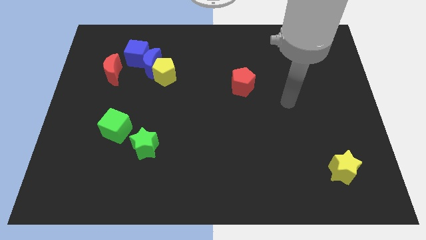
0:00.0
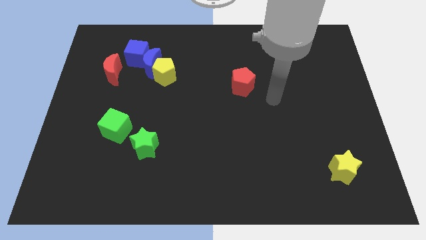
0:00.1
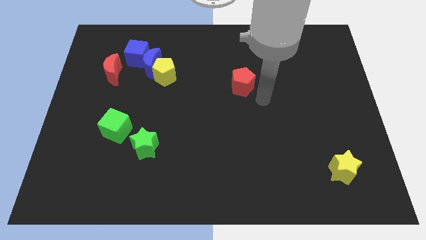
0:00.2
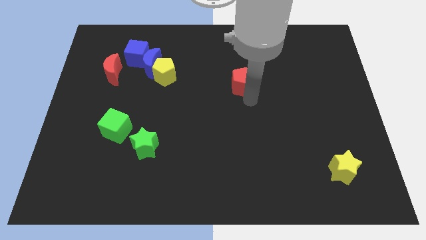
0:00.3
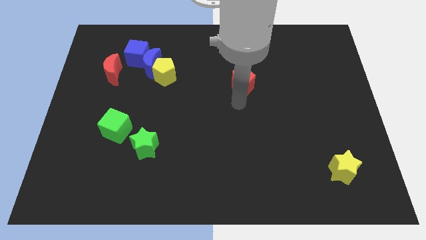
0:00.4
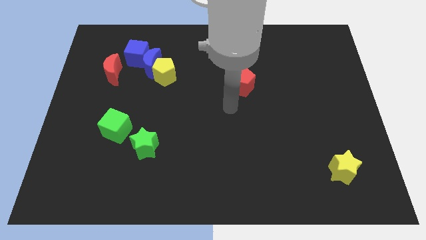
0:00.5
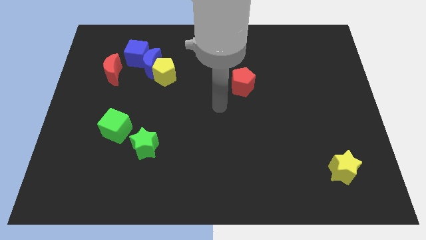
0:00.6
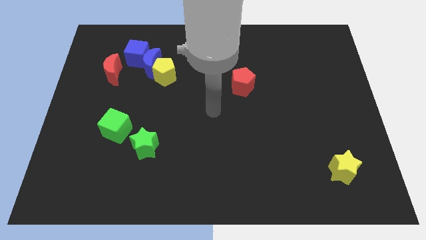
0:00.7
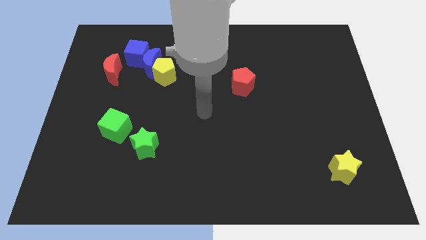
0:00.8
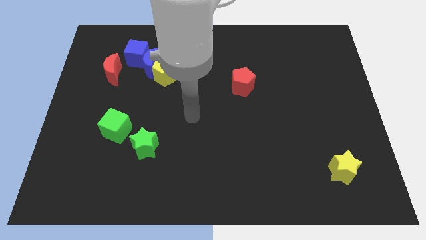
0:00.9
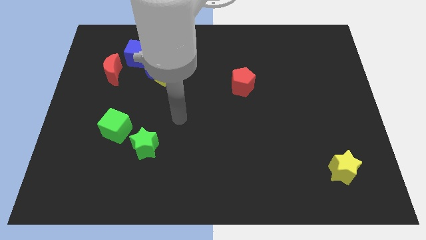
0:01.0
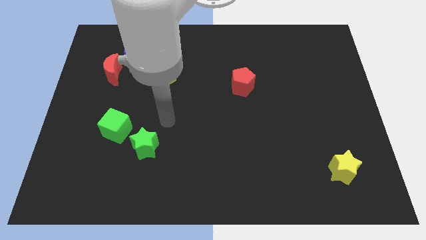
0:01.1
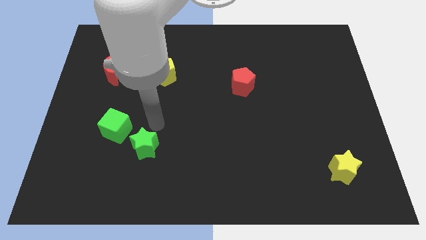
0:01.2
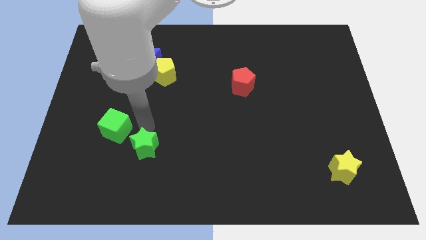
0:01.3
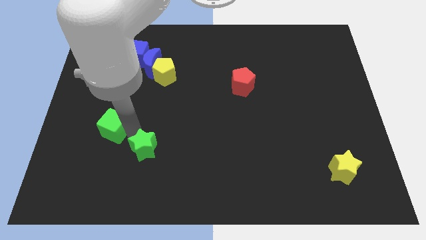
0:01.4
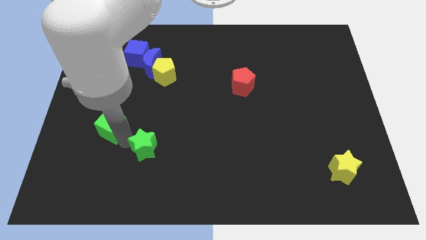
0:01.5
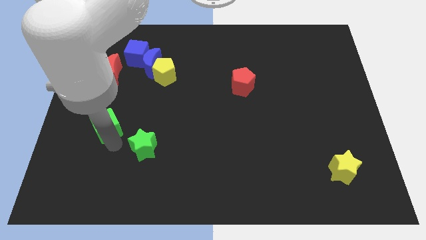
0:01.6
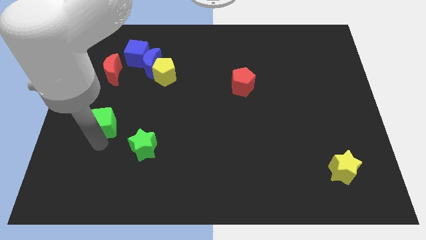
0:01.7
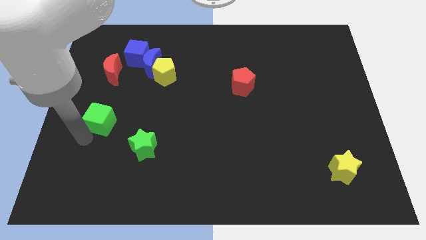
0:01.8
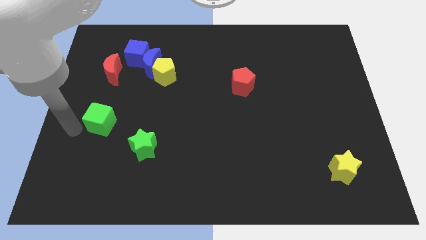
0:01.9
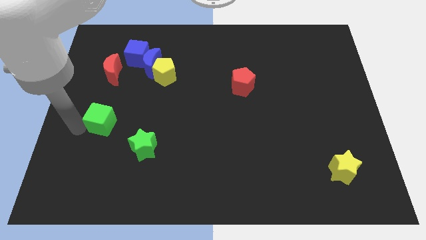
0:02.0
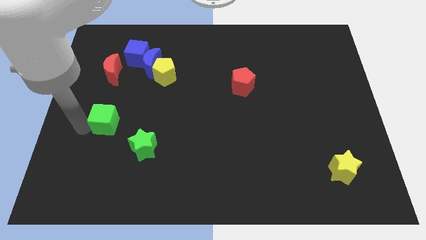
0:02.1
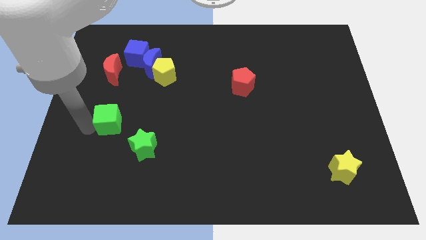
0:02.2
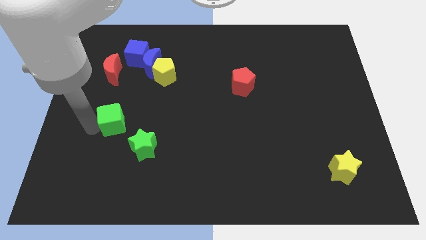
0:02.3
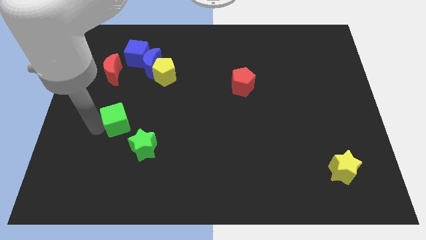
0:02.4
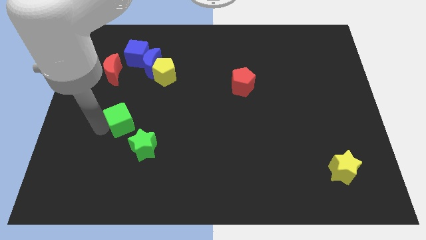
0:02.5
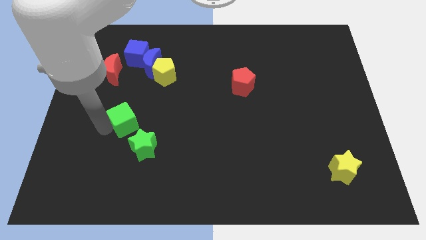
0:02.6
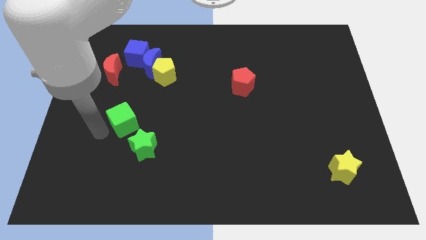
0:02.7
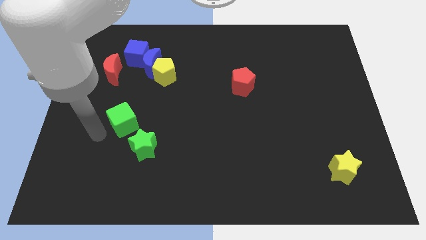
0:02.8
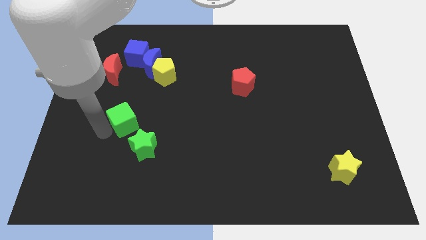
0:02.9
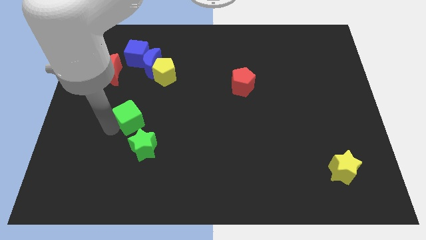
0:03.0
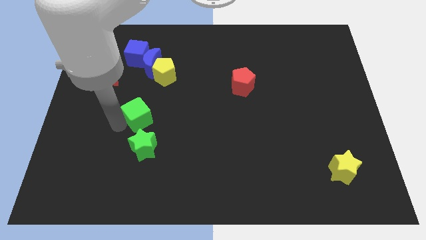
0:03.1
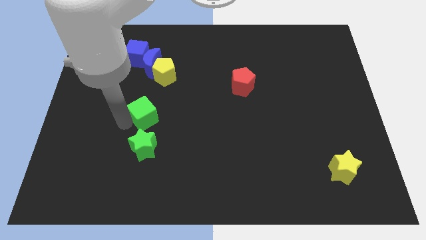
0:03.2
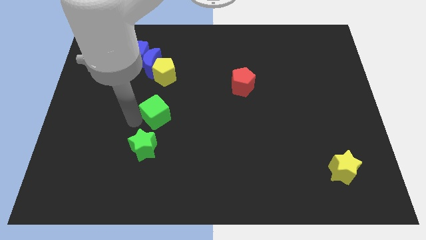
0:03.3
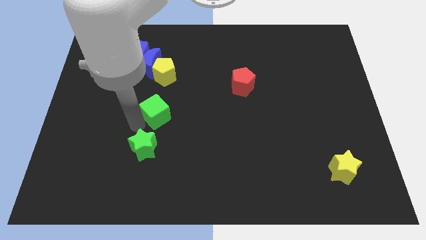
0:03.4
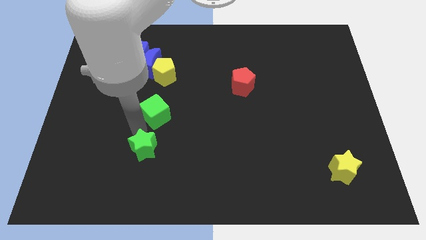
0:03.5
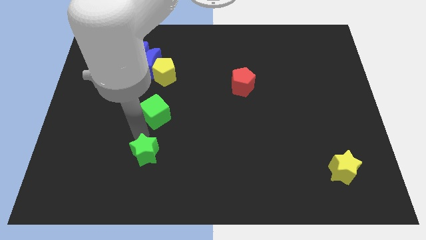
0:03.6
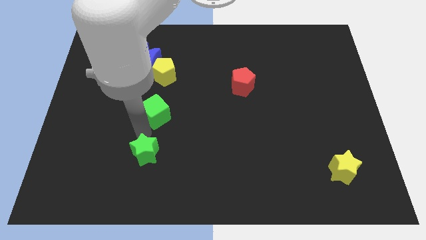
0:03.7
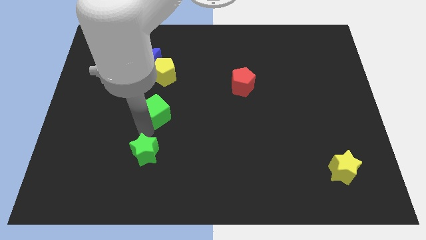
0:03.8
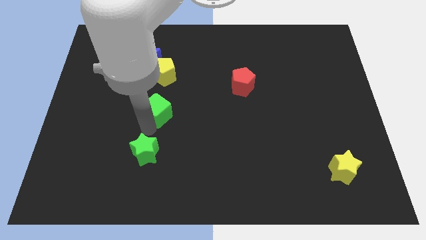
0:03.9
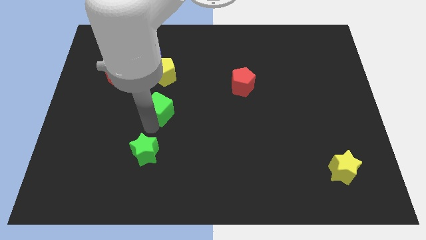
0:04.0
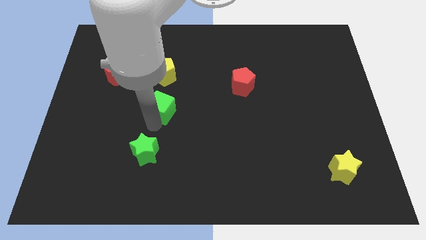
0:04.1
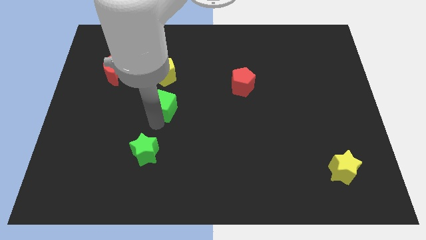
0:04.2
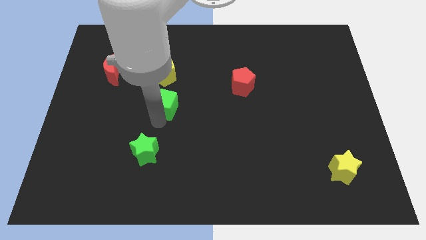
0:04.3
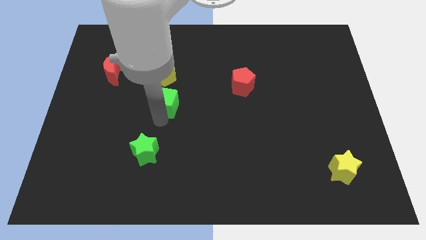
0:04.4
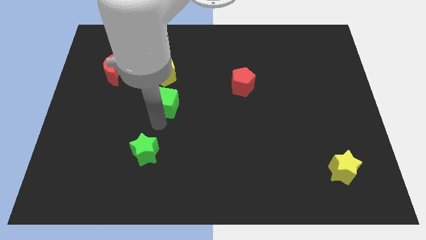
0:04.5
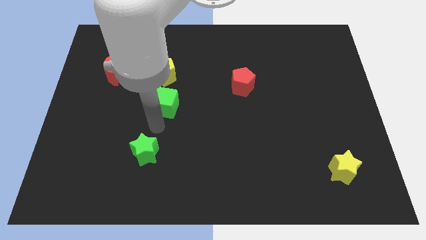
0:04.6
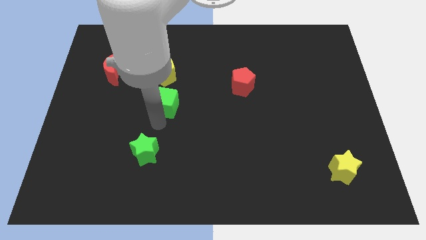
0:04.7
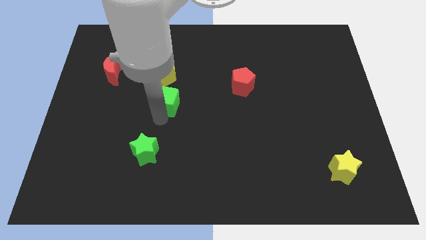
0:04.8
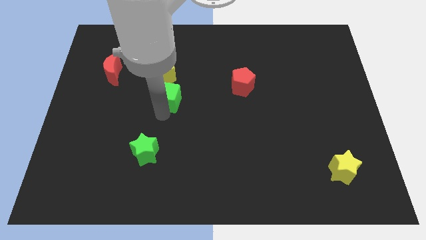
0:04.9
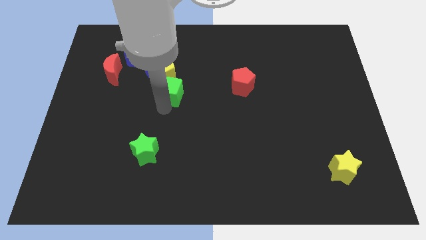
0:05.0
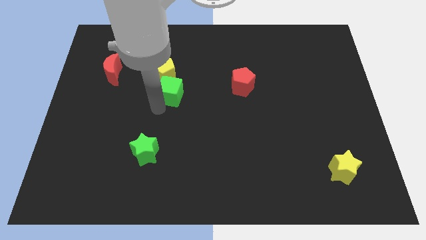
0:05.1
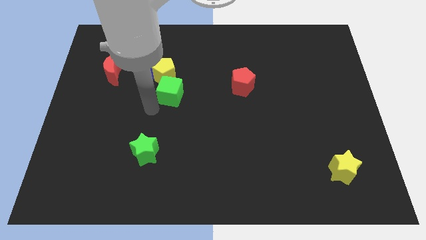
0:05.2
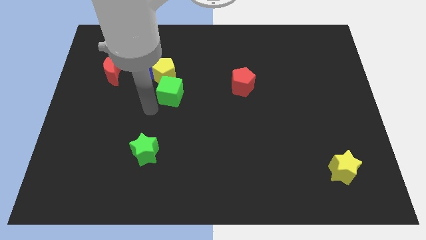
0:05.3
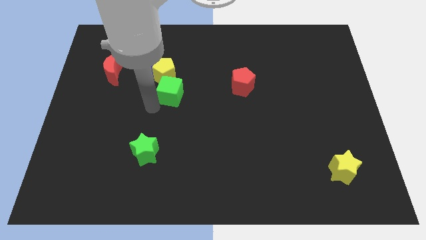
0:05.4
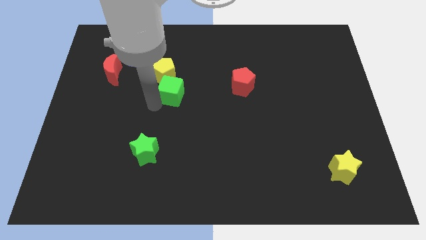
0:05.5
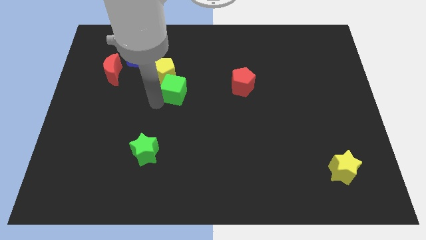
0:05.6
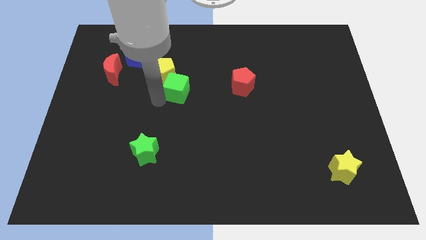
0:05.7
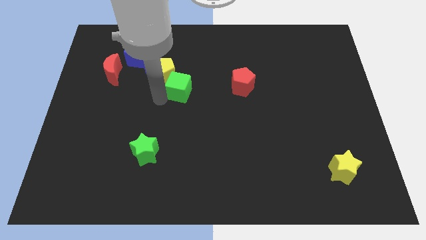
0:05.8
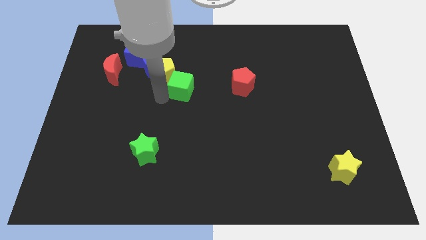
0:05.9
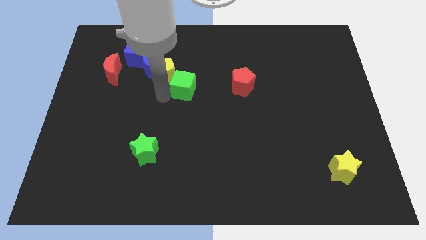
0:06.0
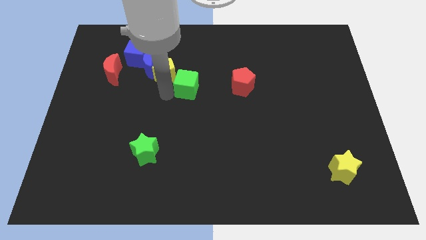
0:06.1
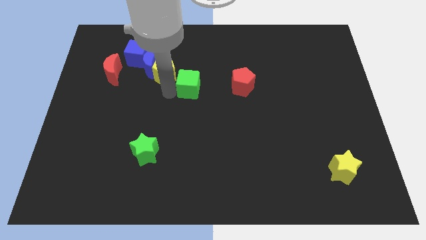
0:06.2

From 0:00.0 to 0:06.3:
push the green cube upwards and right diagonally

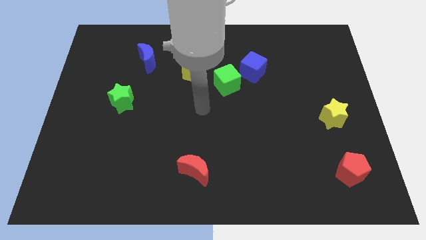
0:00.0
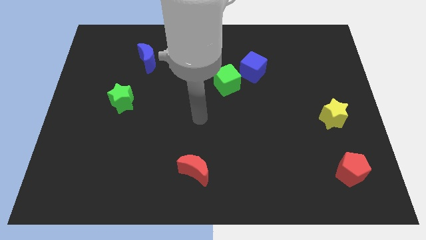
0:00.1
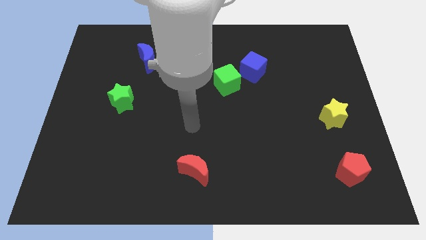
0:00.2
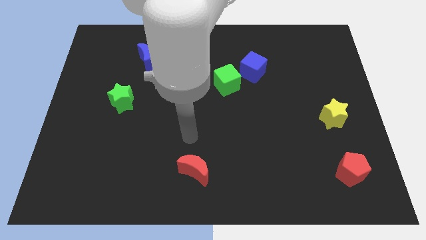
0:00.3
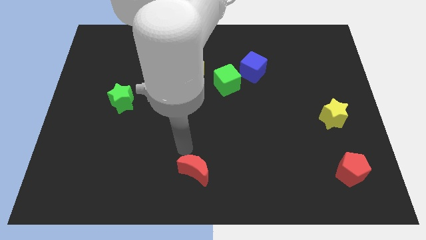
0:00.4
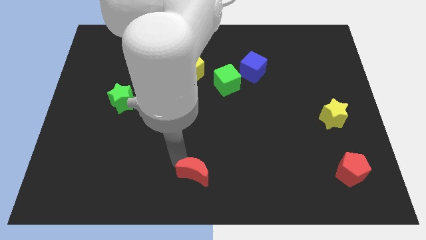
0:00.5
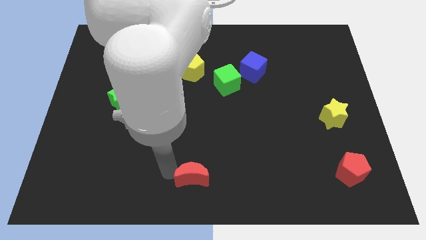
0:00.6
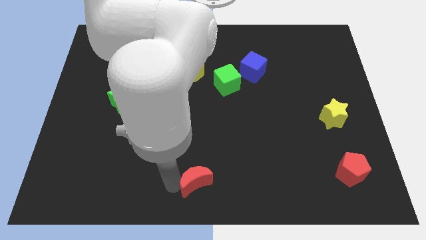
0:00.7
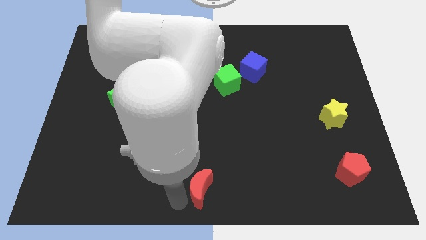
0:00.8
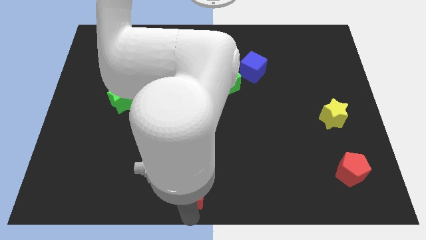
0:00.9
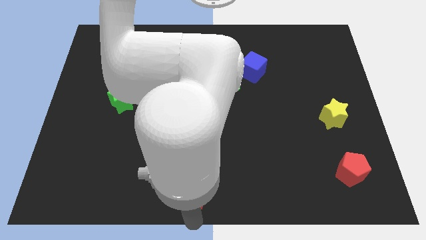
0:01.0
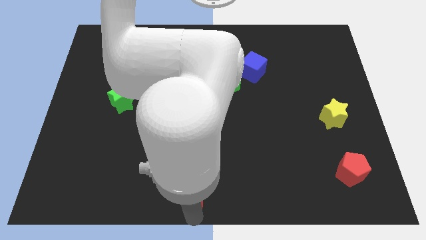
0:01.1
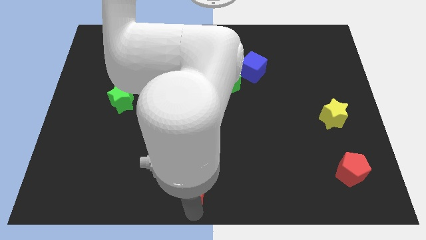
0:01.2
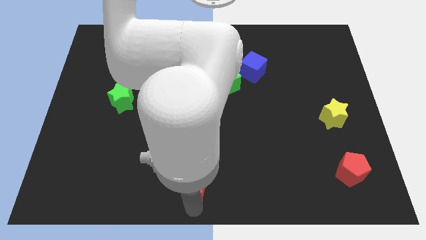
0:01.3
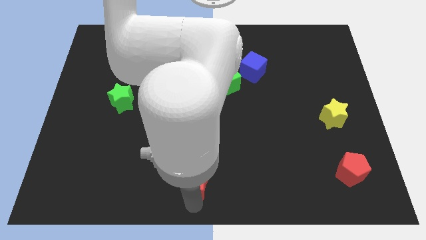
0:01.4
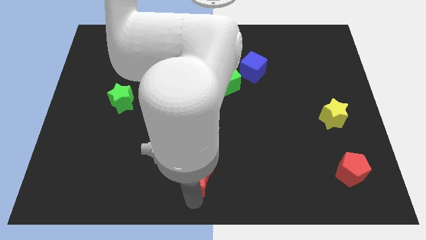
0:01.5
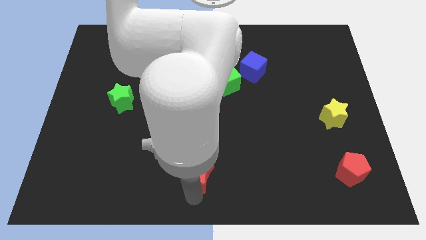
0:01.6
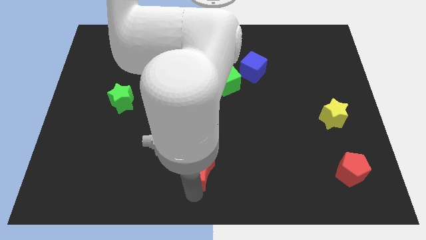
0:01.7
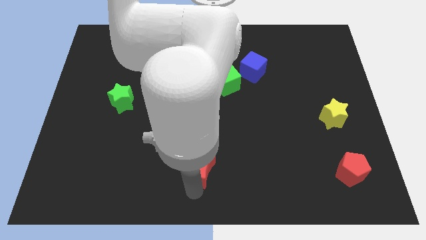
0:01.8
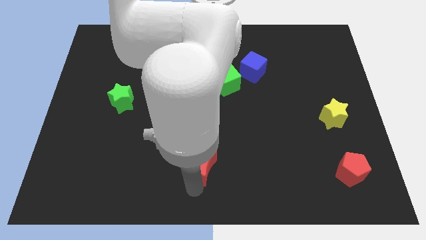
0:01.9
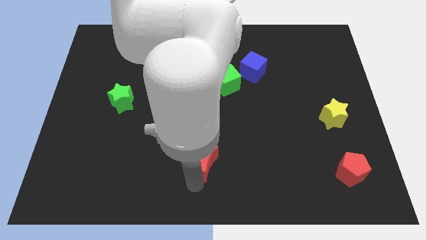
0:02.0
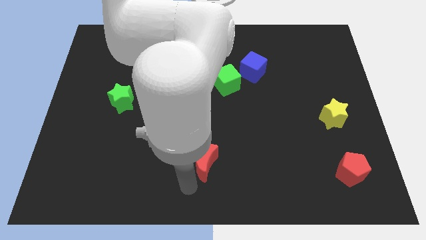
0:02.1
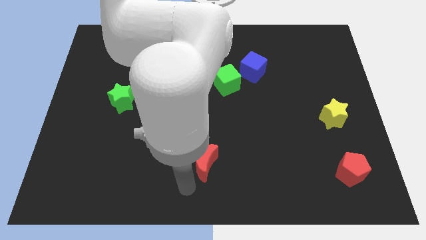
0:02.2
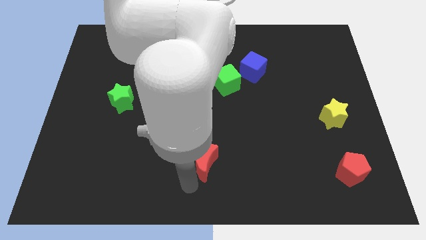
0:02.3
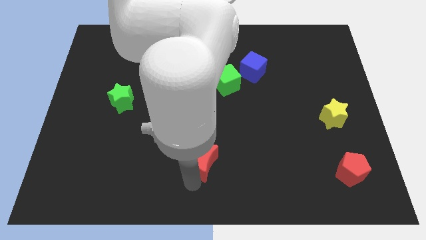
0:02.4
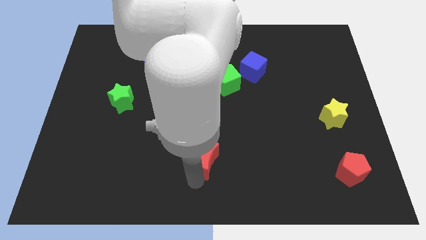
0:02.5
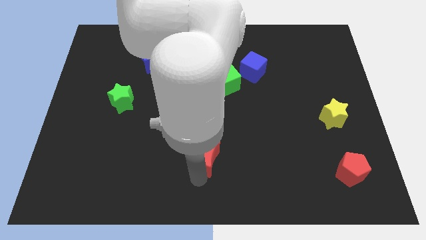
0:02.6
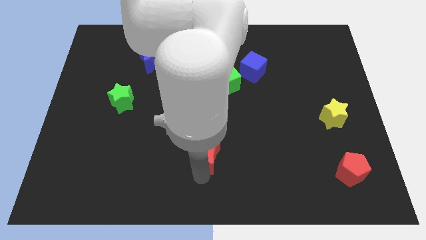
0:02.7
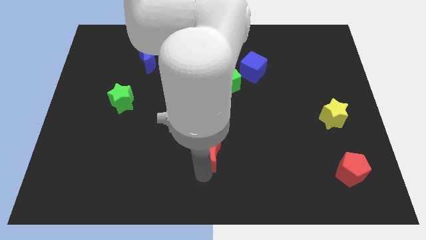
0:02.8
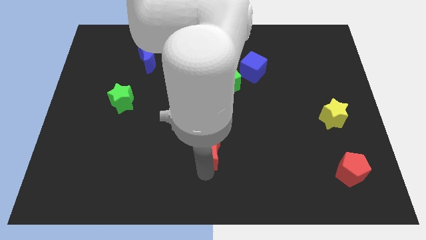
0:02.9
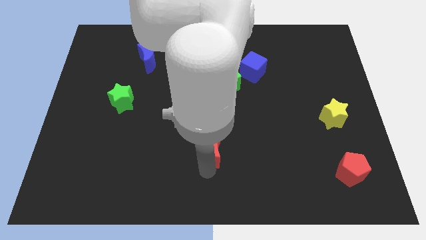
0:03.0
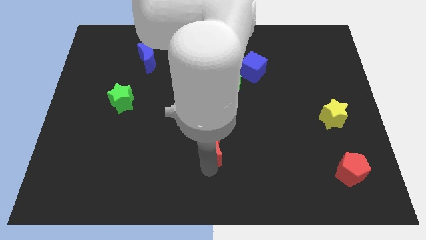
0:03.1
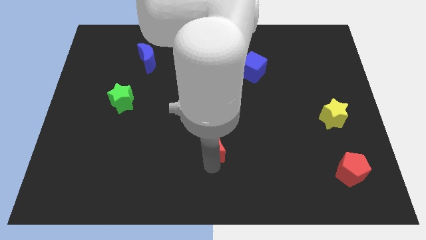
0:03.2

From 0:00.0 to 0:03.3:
slide the red moon up and to the right a bit
